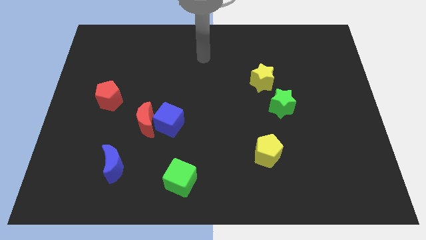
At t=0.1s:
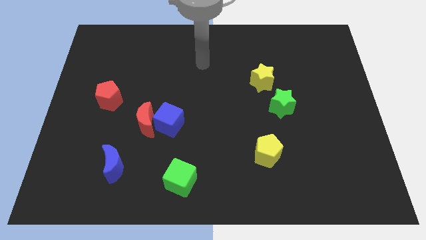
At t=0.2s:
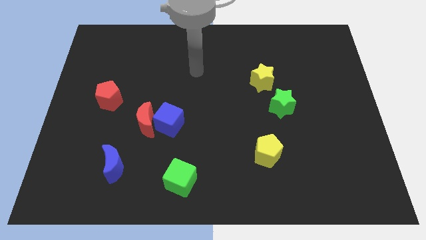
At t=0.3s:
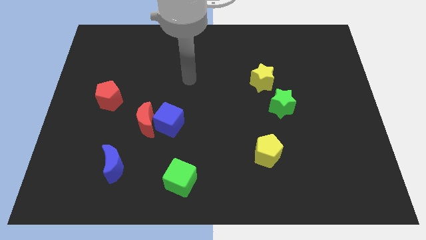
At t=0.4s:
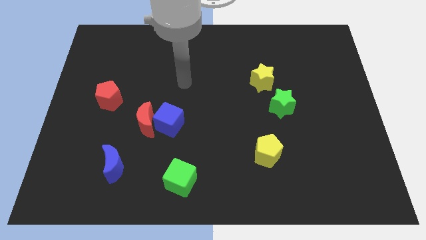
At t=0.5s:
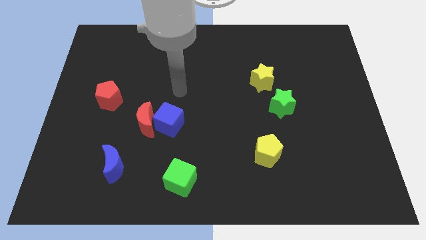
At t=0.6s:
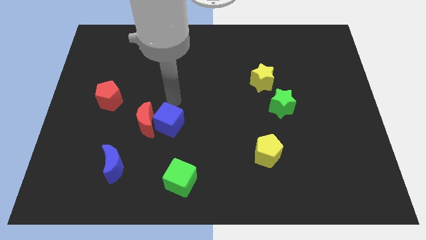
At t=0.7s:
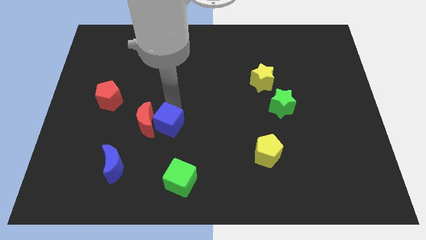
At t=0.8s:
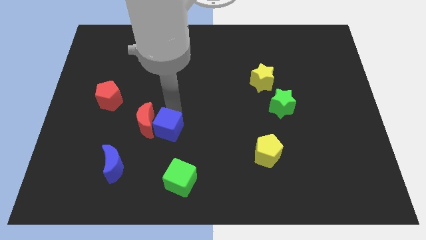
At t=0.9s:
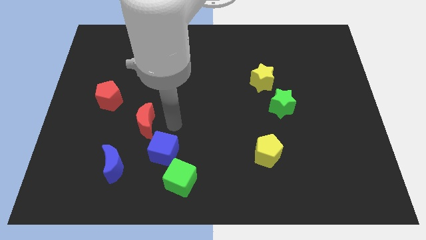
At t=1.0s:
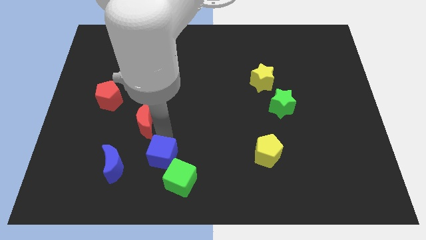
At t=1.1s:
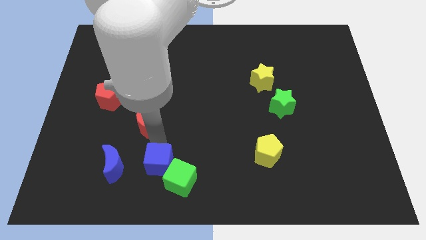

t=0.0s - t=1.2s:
separate the red moon from the blue cube

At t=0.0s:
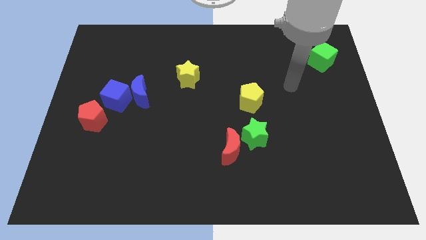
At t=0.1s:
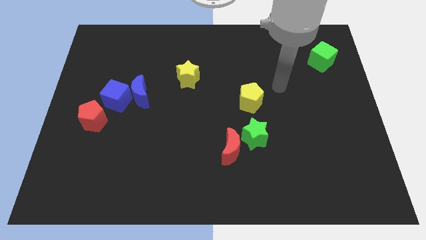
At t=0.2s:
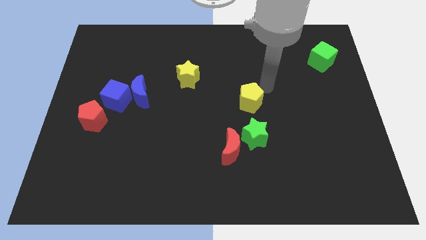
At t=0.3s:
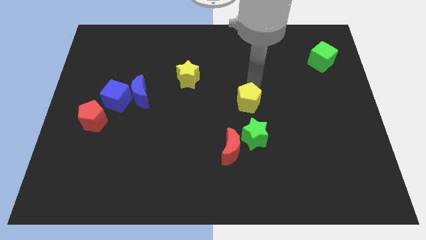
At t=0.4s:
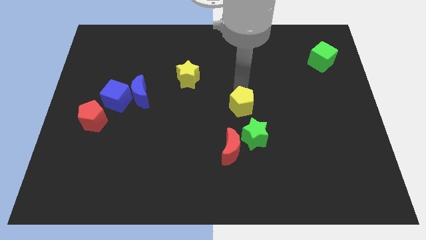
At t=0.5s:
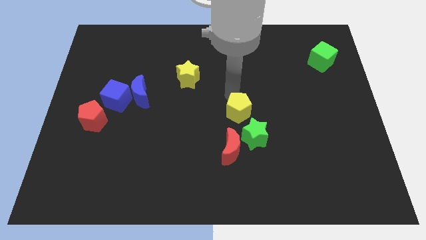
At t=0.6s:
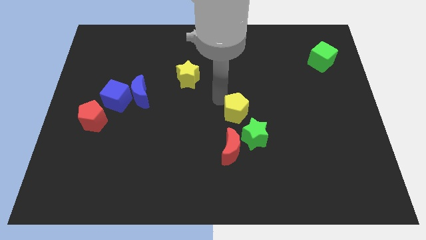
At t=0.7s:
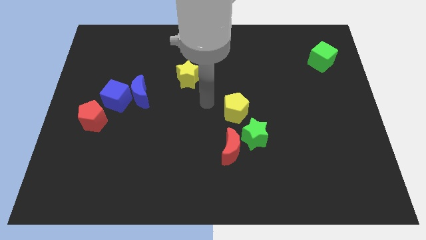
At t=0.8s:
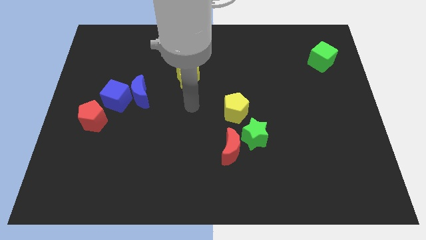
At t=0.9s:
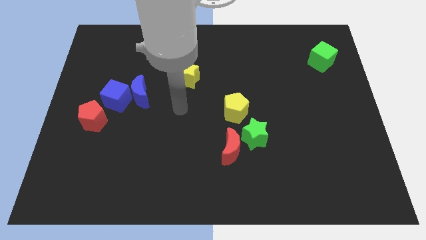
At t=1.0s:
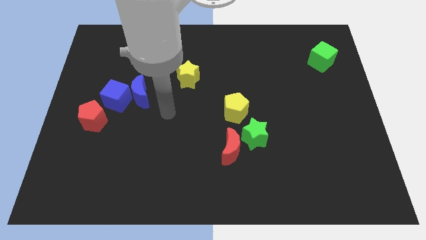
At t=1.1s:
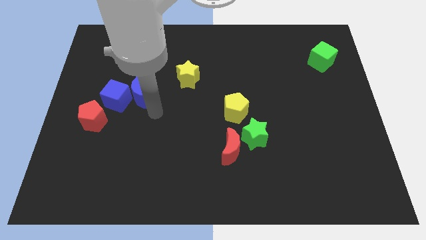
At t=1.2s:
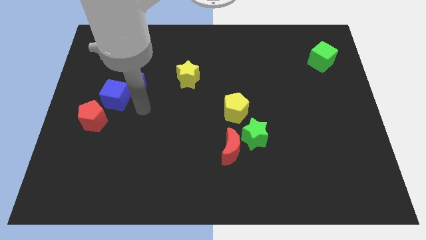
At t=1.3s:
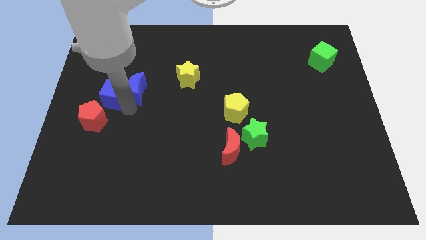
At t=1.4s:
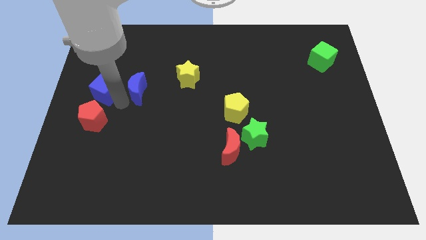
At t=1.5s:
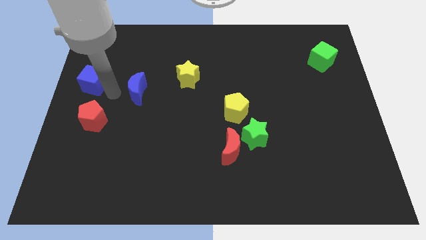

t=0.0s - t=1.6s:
move the blue moon away from the blue cube

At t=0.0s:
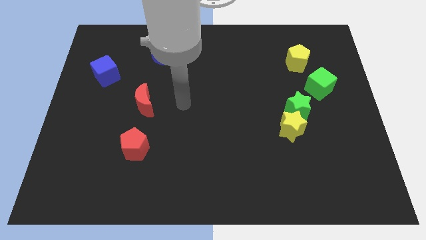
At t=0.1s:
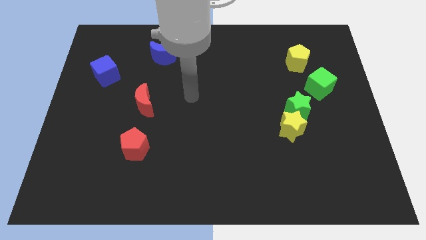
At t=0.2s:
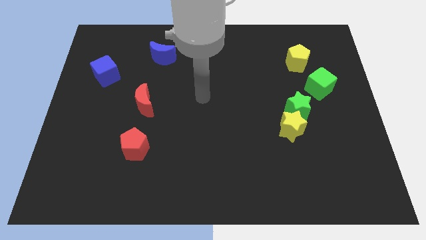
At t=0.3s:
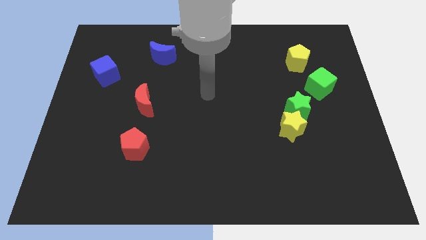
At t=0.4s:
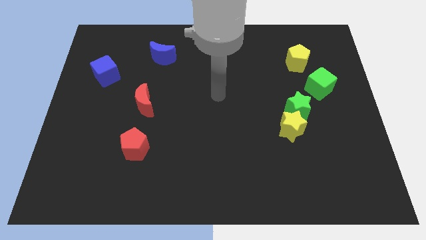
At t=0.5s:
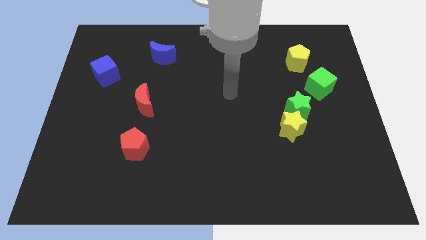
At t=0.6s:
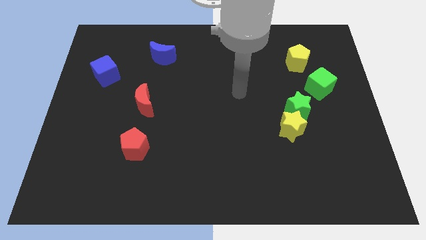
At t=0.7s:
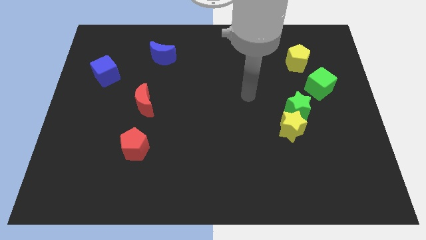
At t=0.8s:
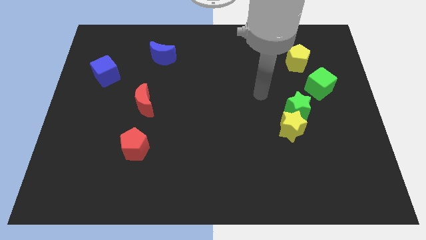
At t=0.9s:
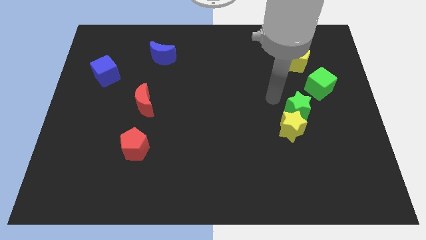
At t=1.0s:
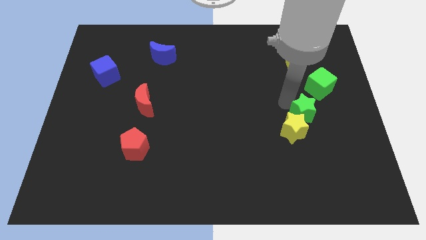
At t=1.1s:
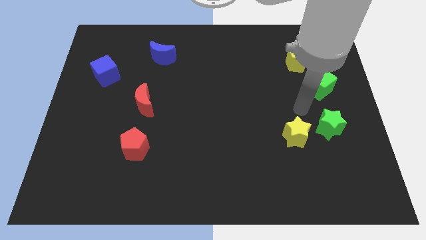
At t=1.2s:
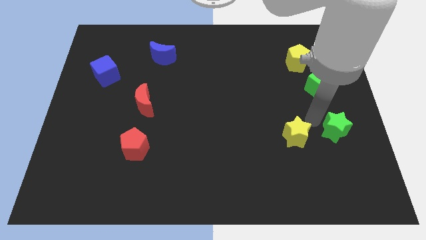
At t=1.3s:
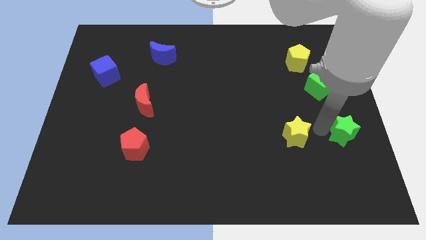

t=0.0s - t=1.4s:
separate the yellow star from the green star

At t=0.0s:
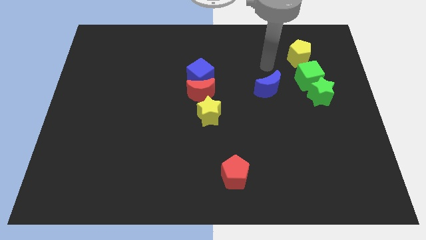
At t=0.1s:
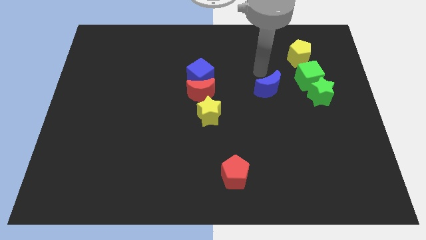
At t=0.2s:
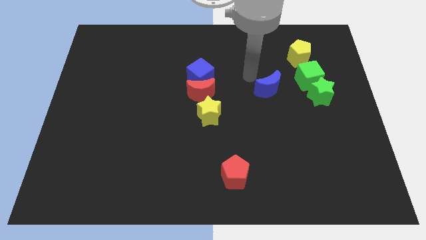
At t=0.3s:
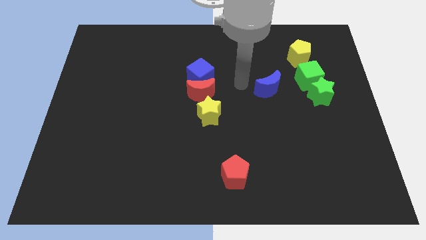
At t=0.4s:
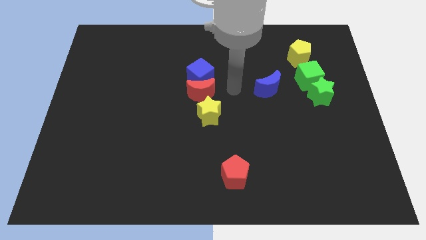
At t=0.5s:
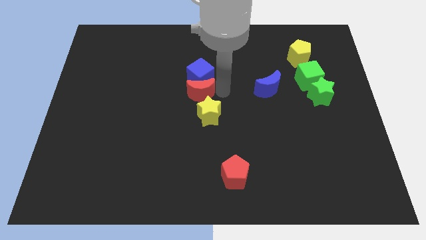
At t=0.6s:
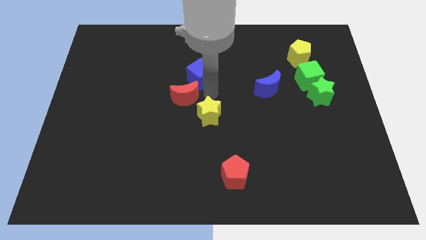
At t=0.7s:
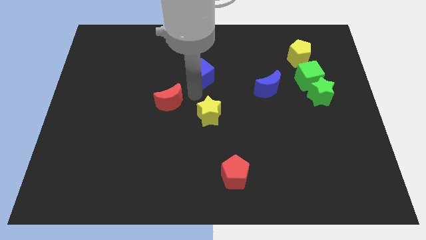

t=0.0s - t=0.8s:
move the blue cube away from the red moon

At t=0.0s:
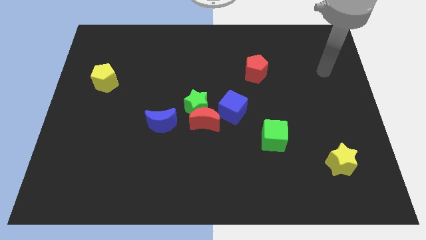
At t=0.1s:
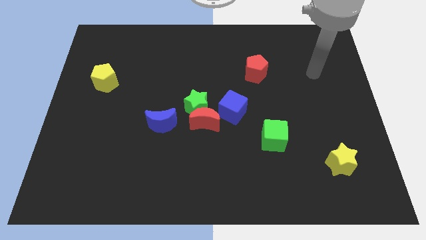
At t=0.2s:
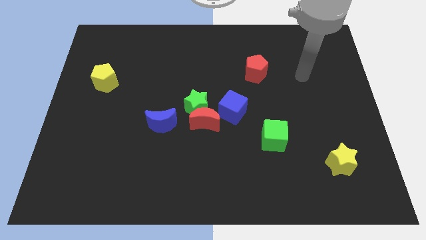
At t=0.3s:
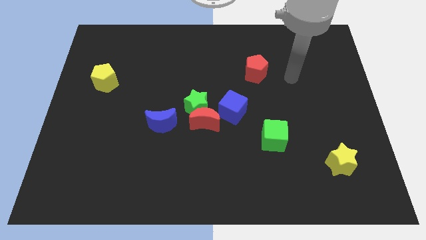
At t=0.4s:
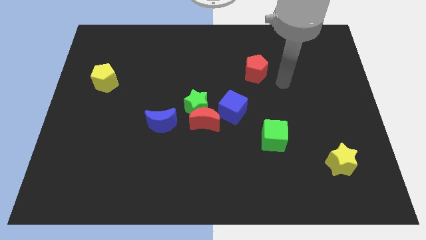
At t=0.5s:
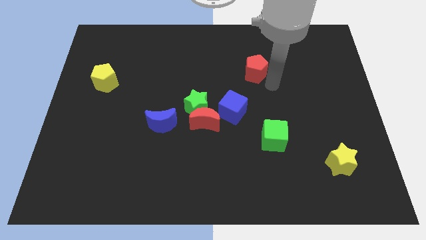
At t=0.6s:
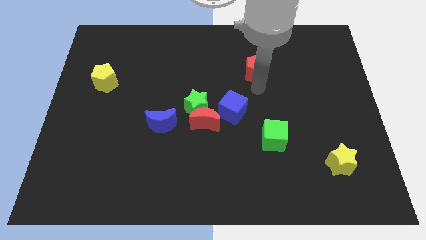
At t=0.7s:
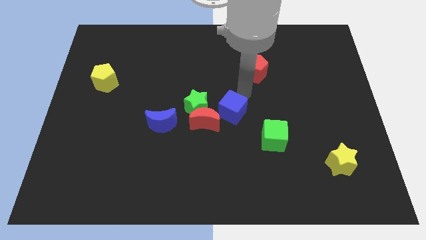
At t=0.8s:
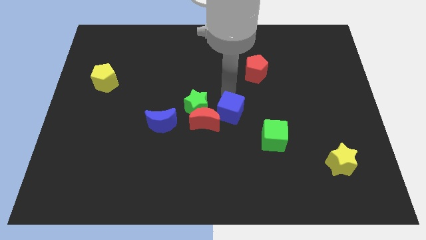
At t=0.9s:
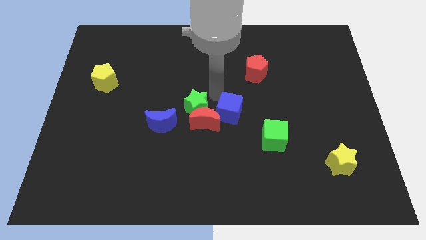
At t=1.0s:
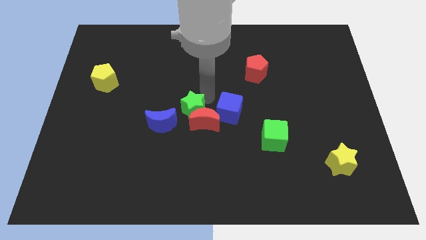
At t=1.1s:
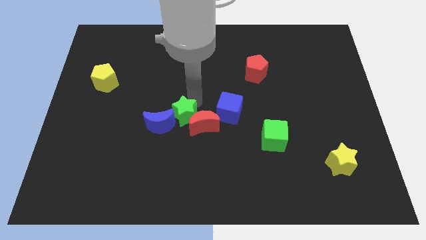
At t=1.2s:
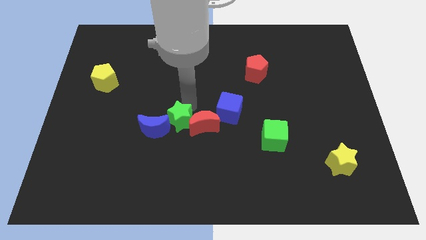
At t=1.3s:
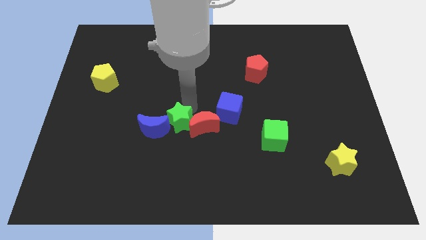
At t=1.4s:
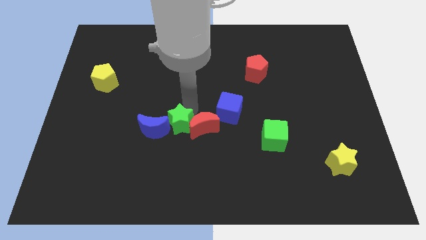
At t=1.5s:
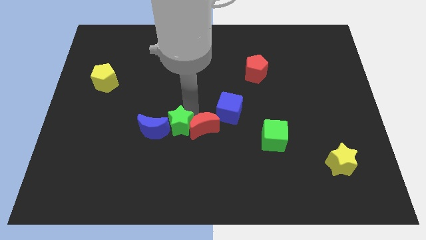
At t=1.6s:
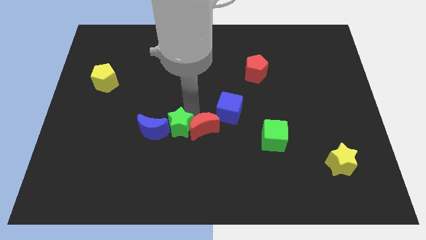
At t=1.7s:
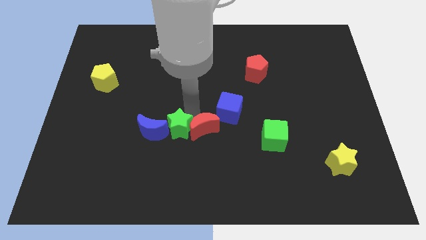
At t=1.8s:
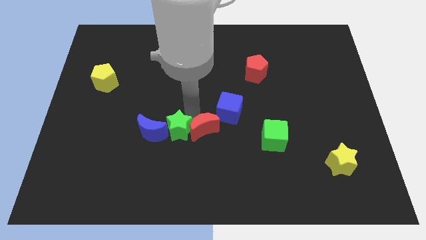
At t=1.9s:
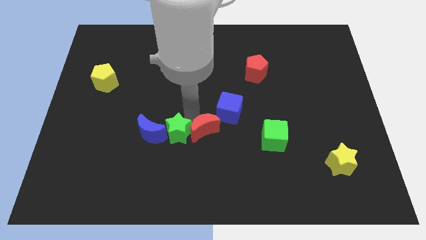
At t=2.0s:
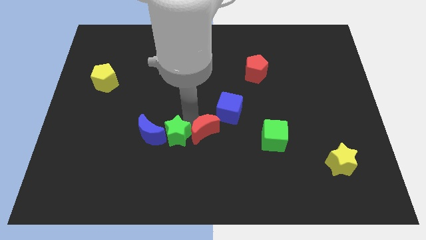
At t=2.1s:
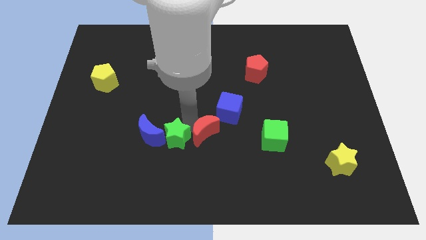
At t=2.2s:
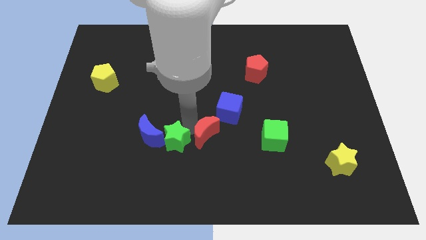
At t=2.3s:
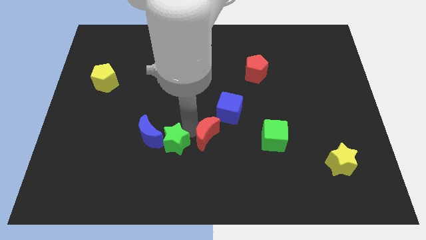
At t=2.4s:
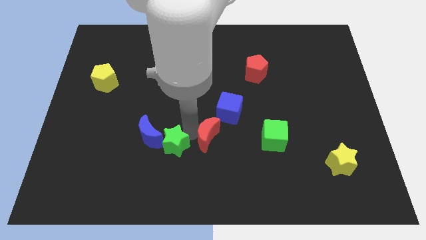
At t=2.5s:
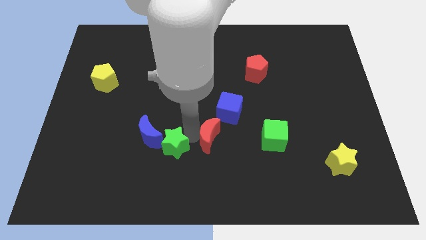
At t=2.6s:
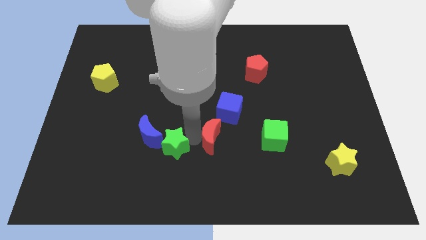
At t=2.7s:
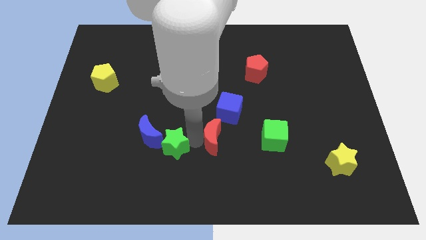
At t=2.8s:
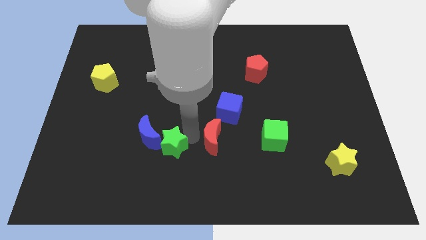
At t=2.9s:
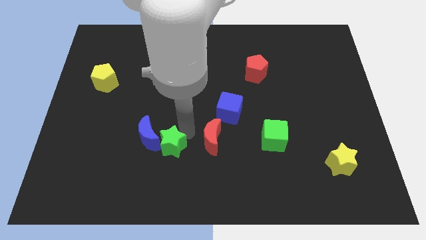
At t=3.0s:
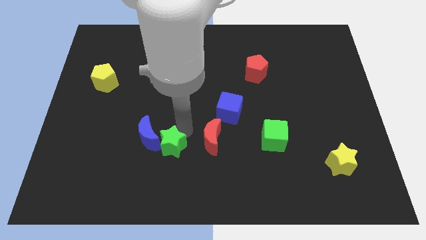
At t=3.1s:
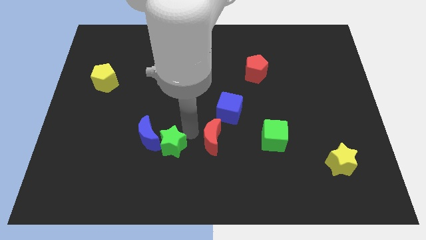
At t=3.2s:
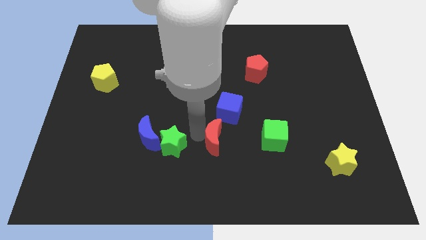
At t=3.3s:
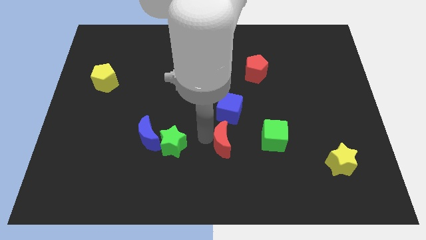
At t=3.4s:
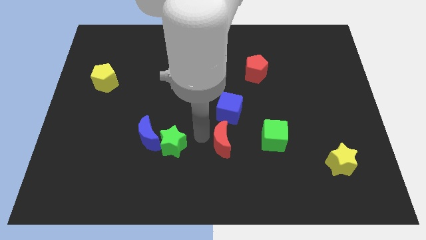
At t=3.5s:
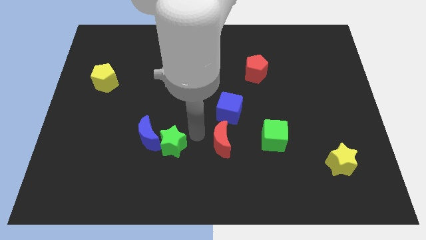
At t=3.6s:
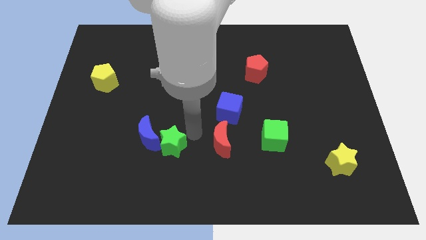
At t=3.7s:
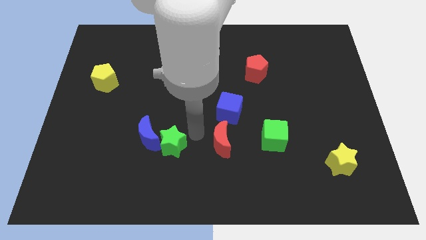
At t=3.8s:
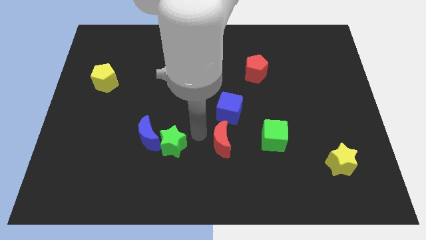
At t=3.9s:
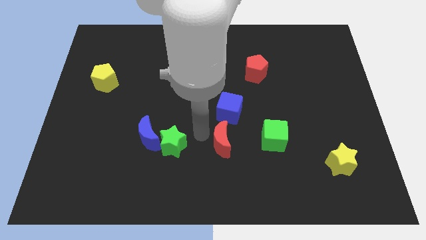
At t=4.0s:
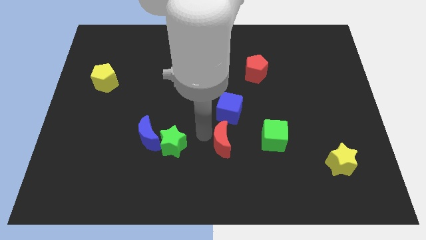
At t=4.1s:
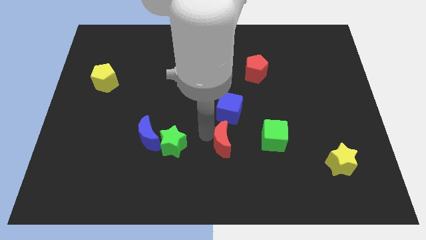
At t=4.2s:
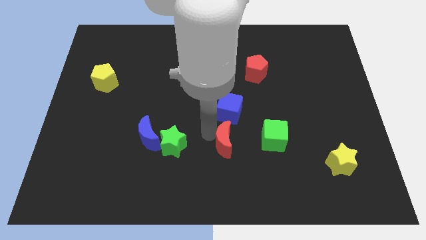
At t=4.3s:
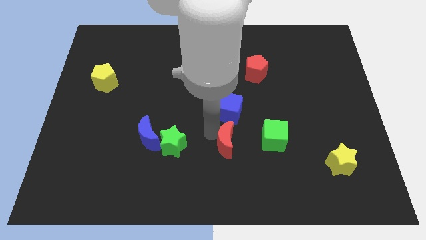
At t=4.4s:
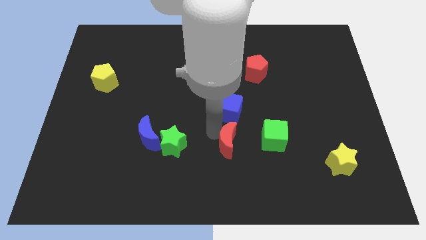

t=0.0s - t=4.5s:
separate the red moon from the group
